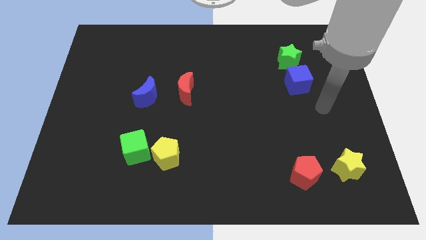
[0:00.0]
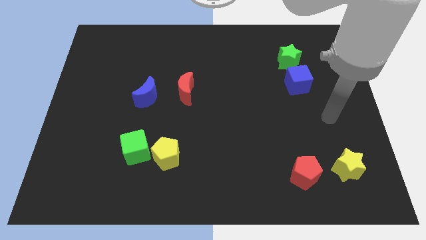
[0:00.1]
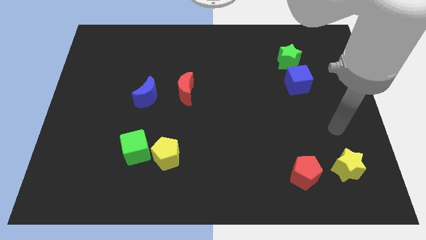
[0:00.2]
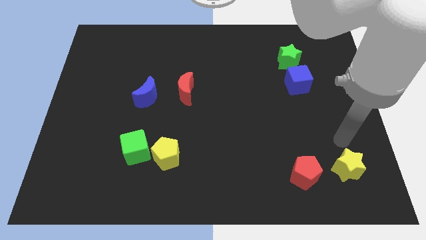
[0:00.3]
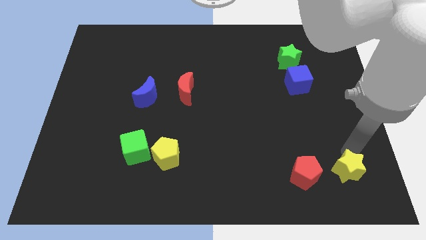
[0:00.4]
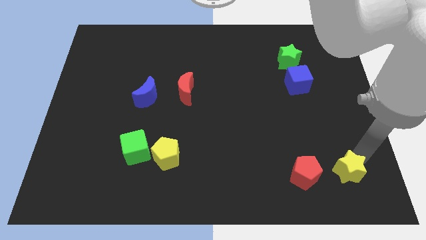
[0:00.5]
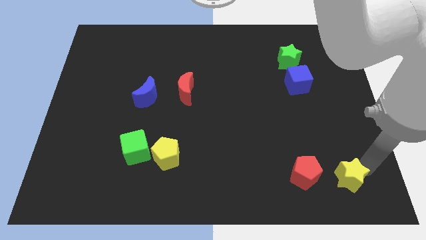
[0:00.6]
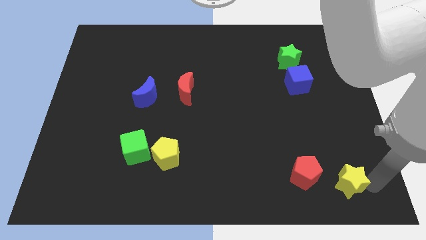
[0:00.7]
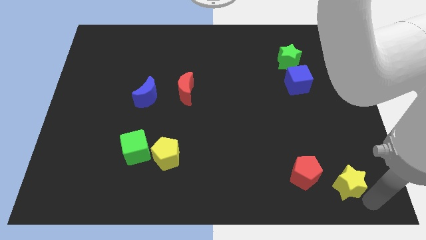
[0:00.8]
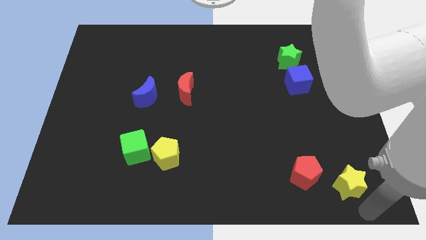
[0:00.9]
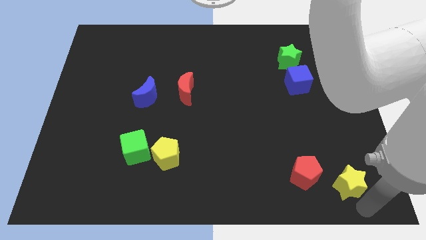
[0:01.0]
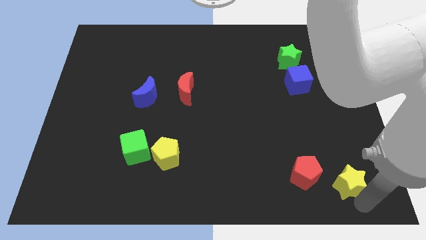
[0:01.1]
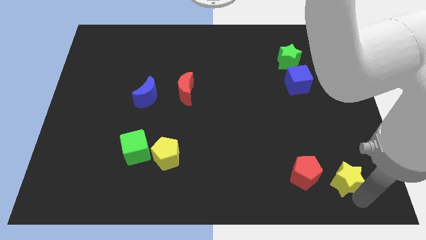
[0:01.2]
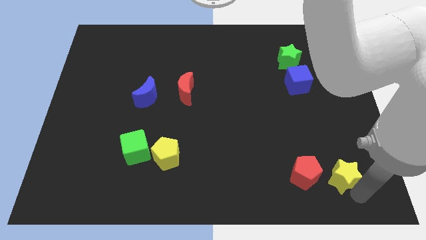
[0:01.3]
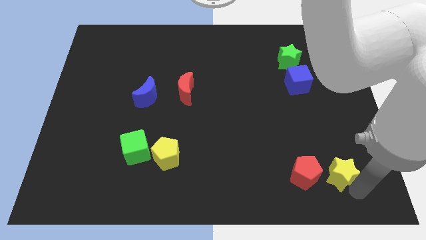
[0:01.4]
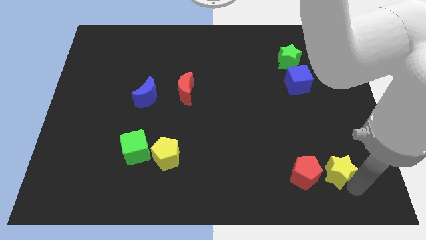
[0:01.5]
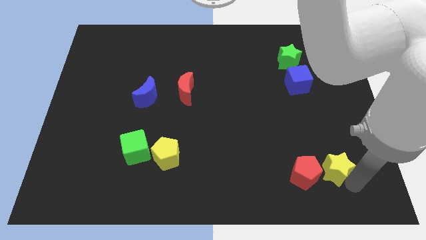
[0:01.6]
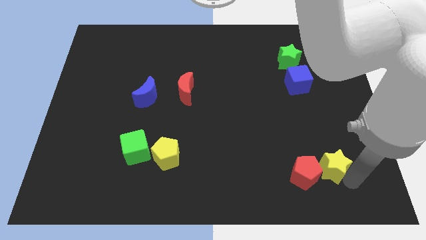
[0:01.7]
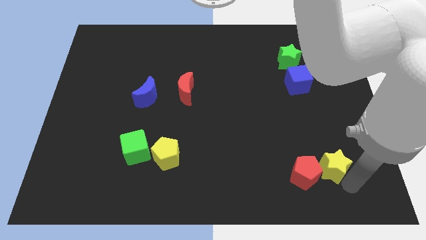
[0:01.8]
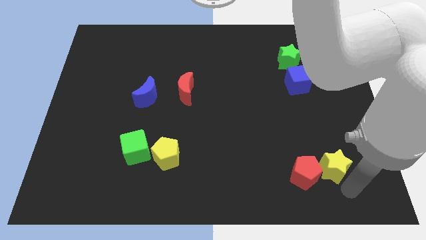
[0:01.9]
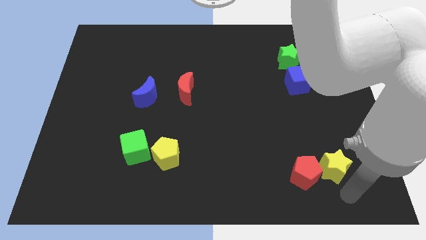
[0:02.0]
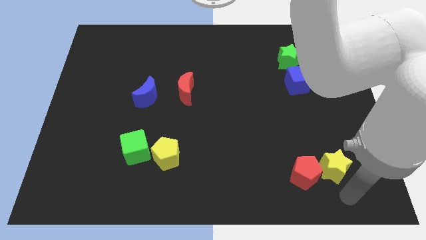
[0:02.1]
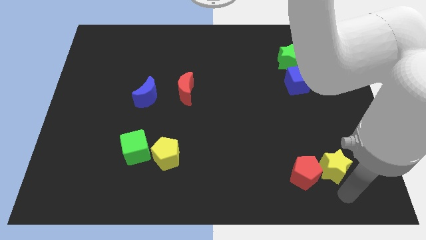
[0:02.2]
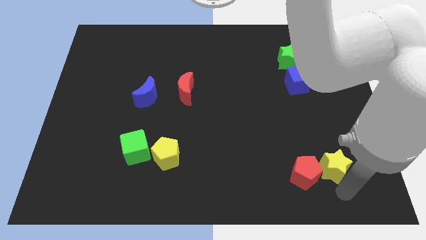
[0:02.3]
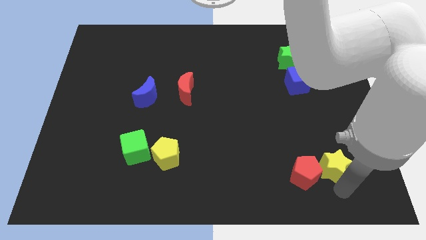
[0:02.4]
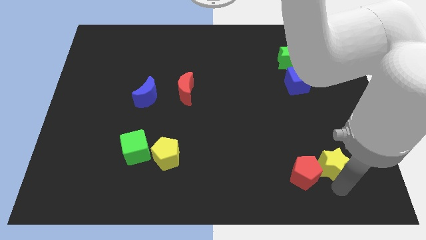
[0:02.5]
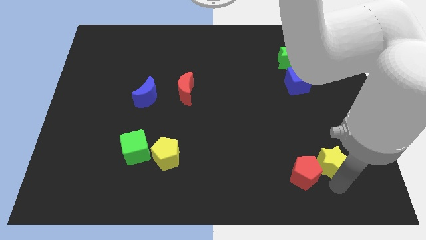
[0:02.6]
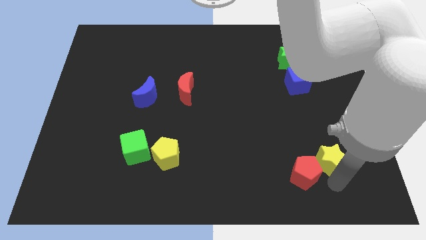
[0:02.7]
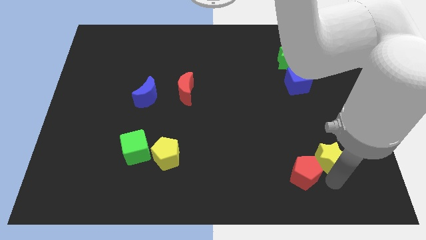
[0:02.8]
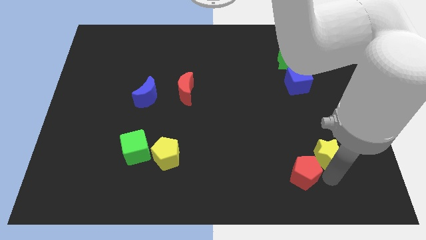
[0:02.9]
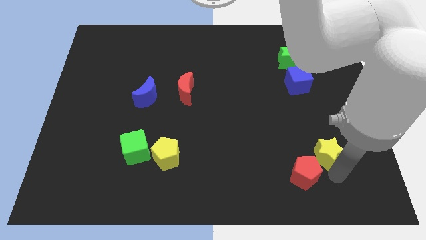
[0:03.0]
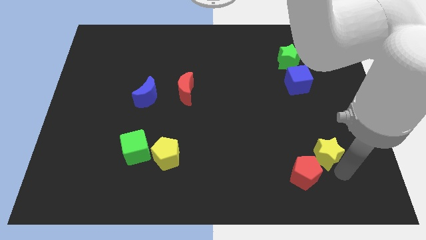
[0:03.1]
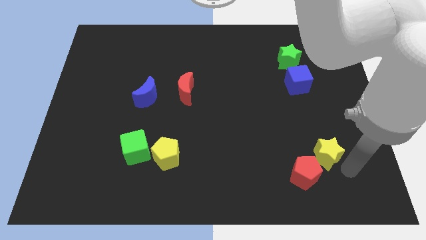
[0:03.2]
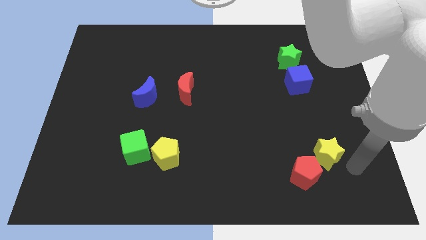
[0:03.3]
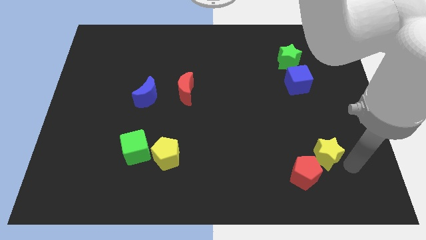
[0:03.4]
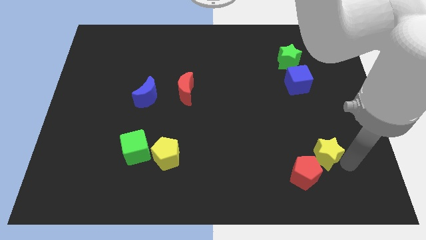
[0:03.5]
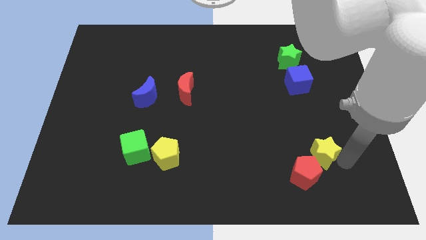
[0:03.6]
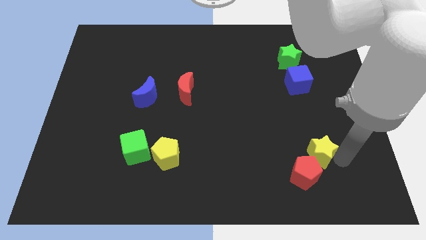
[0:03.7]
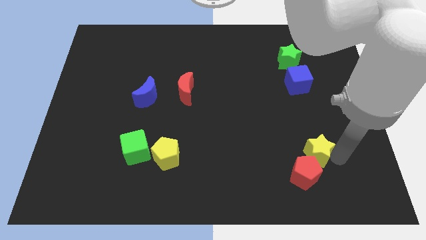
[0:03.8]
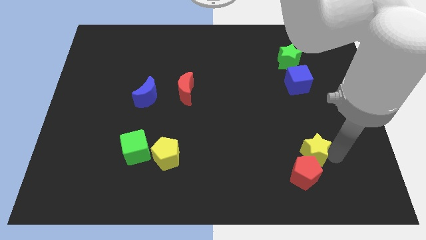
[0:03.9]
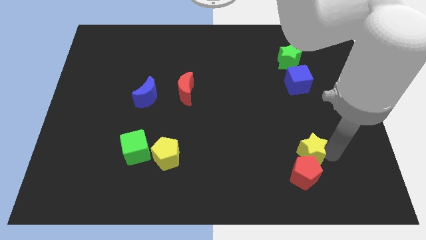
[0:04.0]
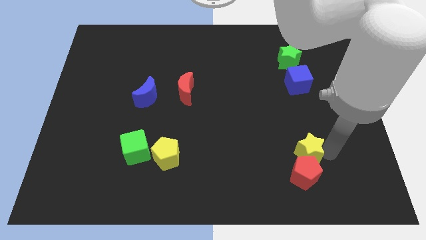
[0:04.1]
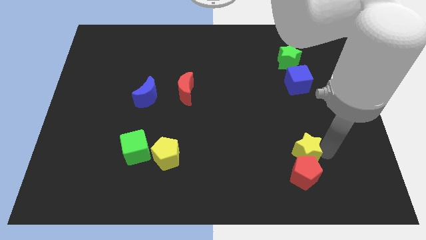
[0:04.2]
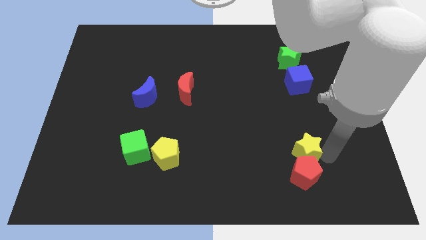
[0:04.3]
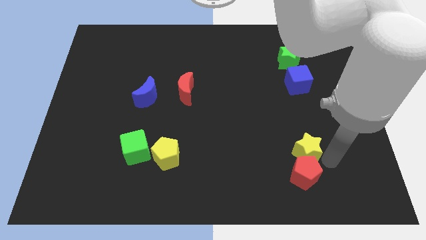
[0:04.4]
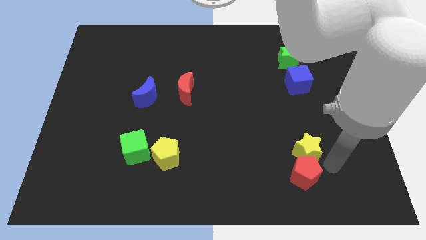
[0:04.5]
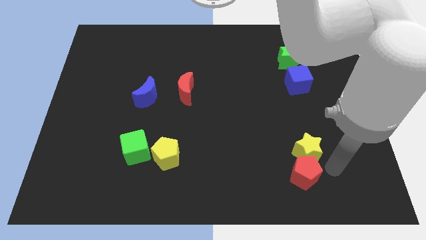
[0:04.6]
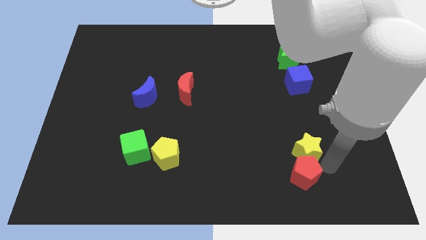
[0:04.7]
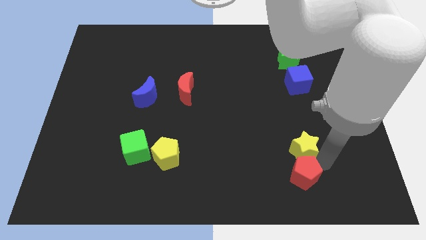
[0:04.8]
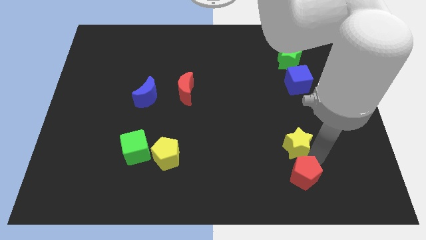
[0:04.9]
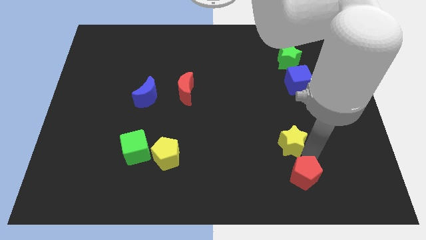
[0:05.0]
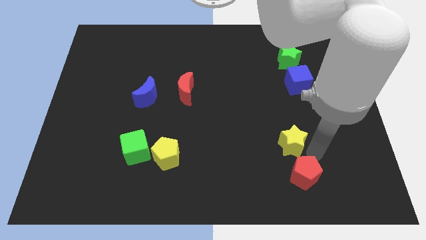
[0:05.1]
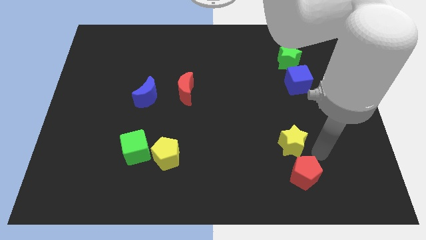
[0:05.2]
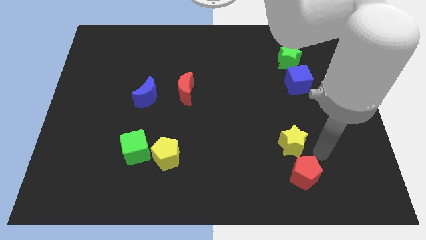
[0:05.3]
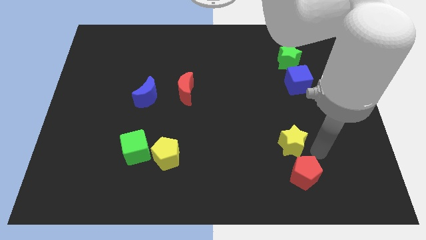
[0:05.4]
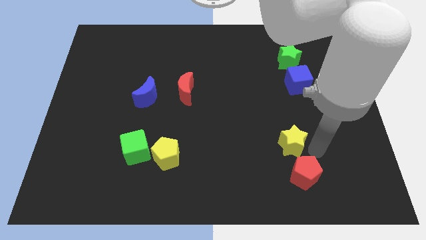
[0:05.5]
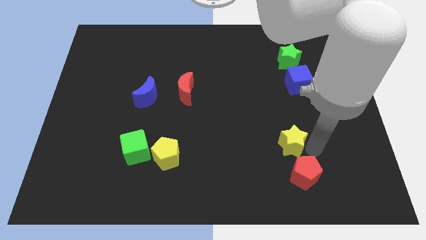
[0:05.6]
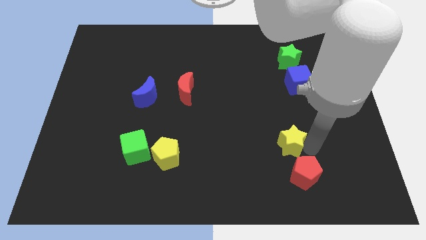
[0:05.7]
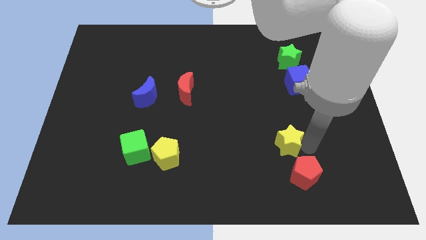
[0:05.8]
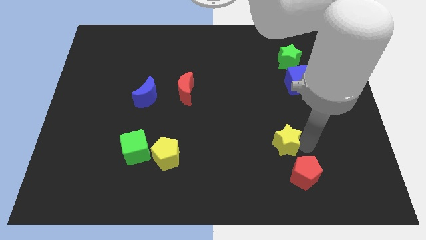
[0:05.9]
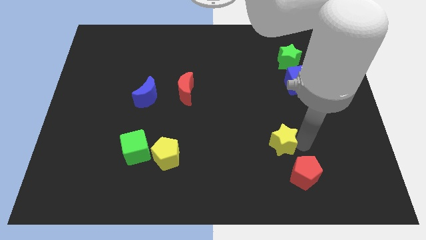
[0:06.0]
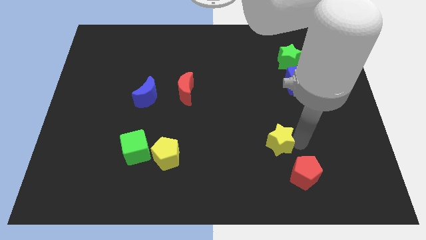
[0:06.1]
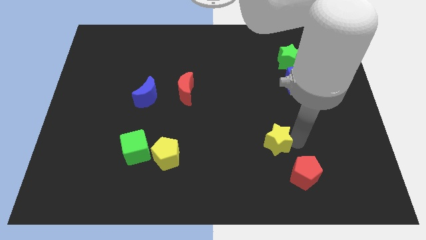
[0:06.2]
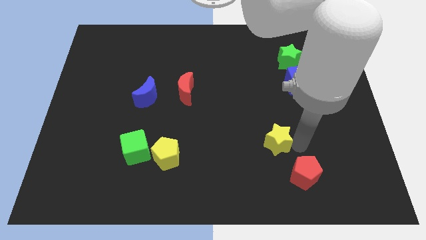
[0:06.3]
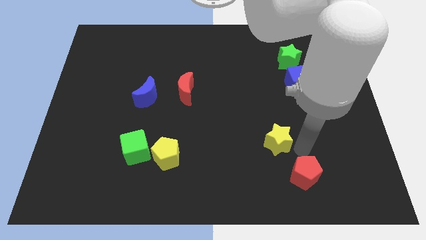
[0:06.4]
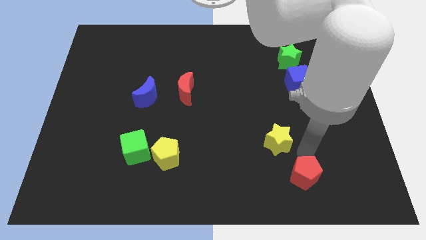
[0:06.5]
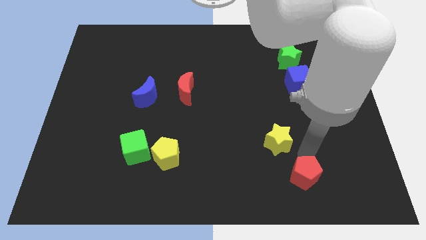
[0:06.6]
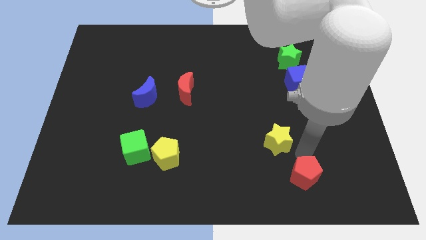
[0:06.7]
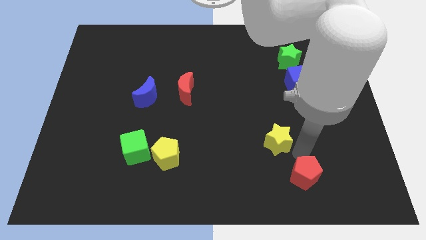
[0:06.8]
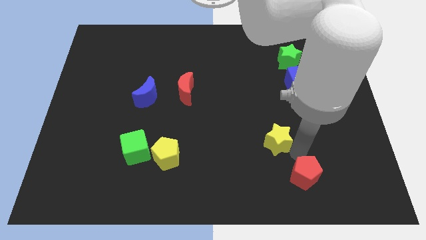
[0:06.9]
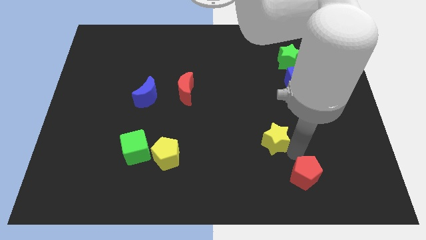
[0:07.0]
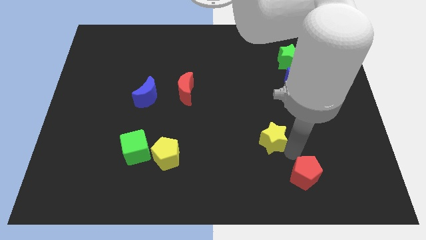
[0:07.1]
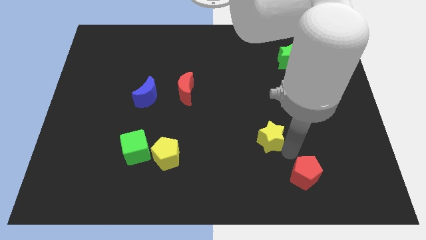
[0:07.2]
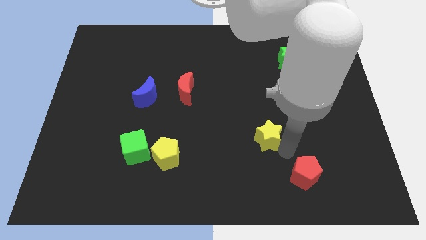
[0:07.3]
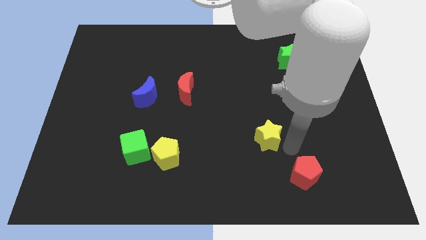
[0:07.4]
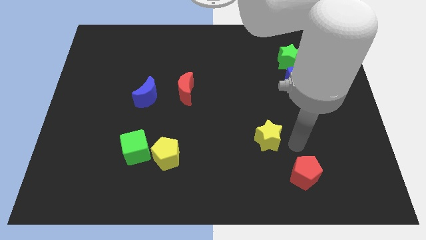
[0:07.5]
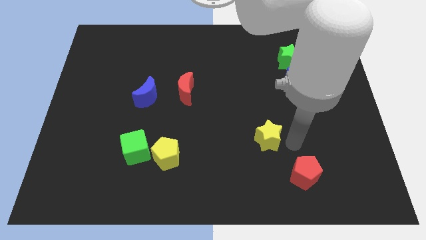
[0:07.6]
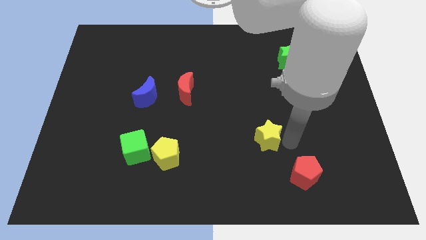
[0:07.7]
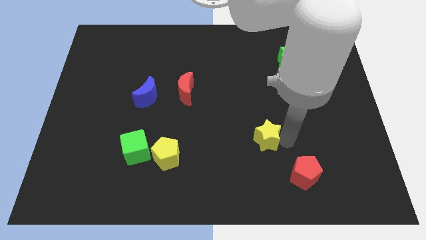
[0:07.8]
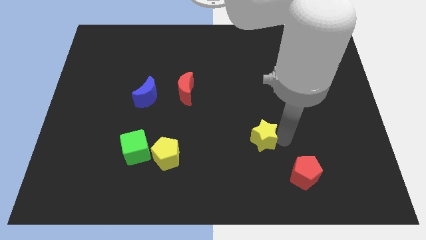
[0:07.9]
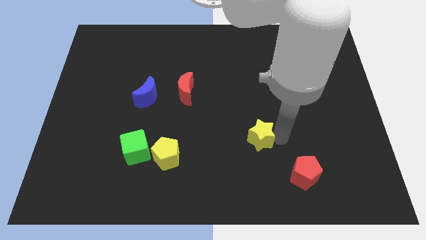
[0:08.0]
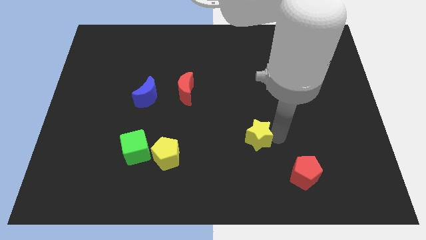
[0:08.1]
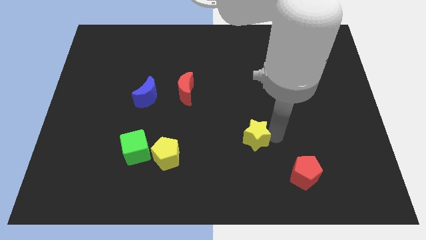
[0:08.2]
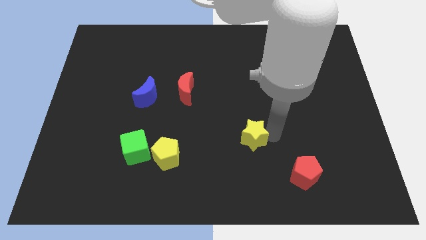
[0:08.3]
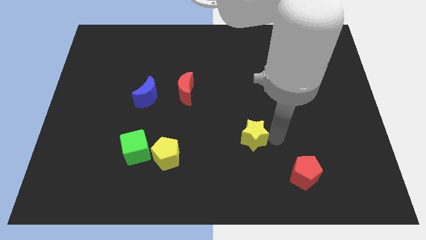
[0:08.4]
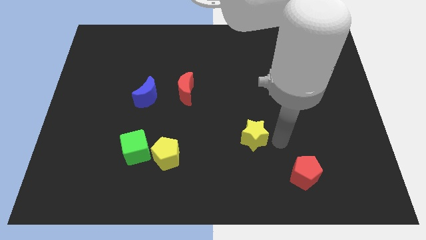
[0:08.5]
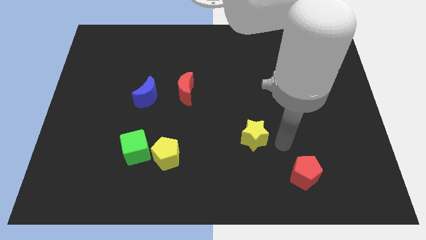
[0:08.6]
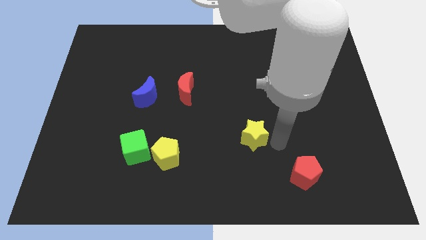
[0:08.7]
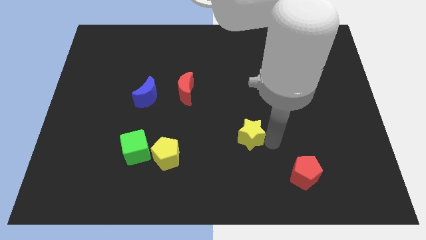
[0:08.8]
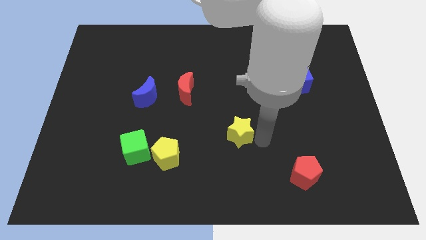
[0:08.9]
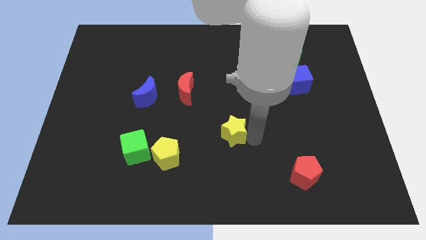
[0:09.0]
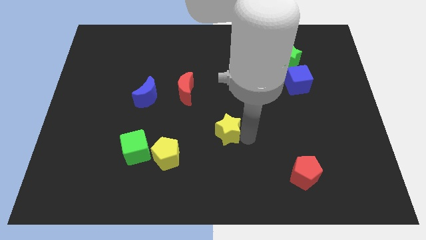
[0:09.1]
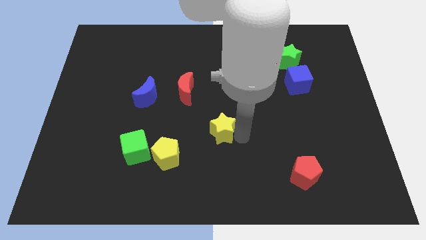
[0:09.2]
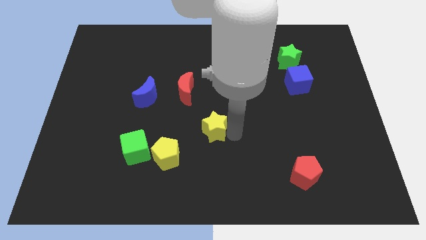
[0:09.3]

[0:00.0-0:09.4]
slide the yellow star diagonally up and to the right of the yellow pentagon
